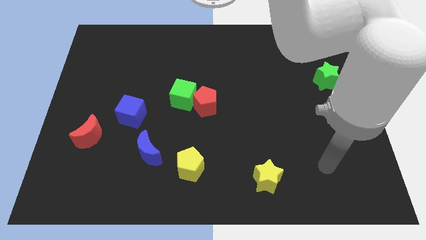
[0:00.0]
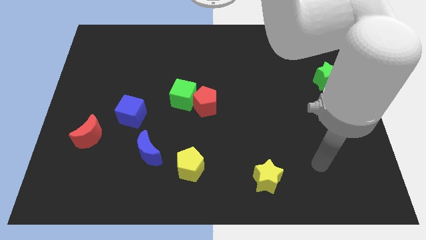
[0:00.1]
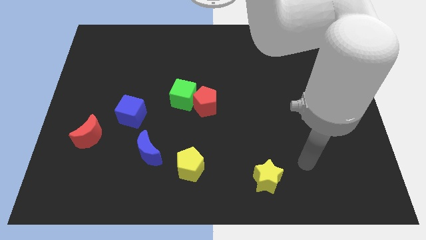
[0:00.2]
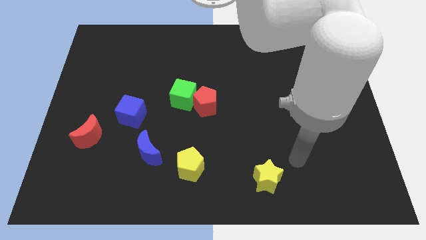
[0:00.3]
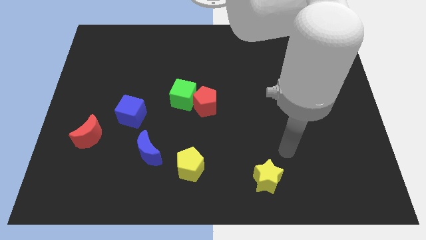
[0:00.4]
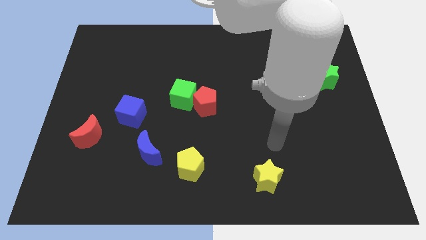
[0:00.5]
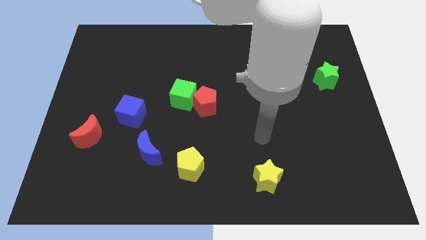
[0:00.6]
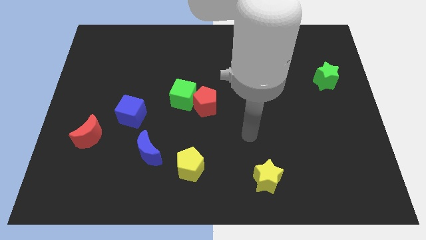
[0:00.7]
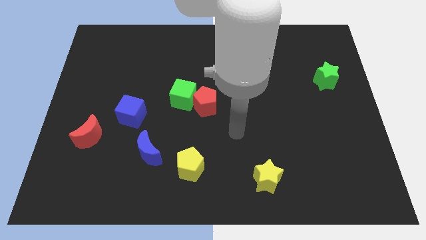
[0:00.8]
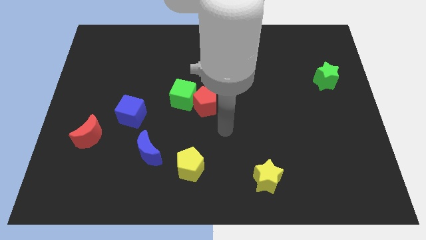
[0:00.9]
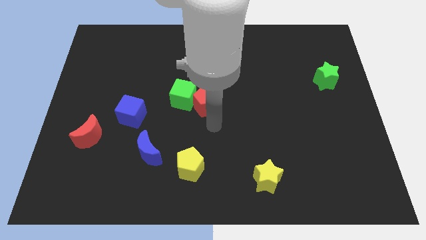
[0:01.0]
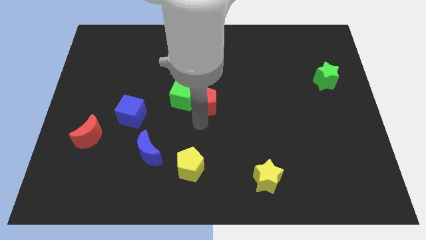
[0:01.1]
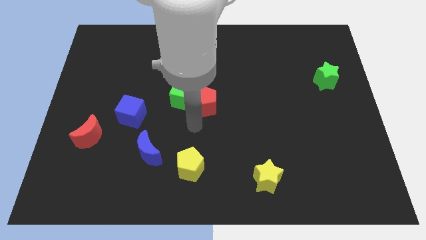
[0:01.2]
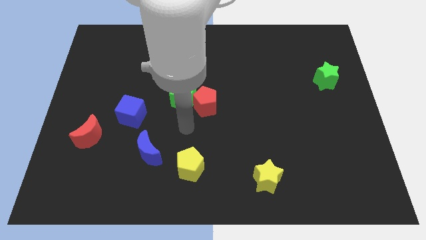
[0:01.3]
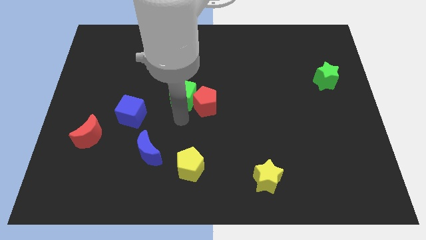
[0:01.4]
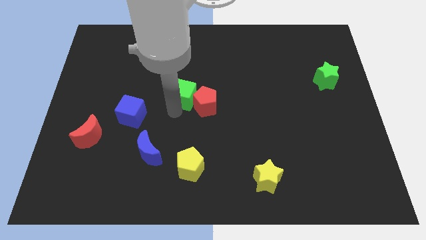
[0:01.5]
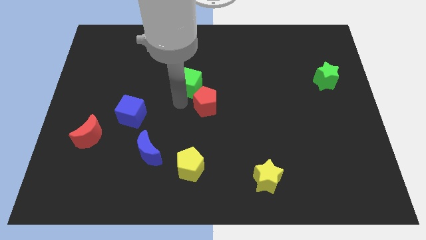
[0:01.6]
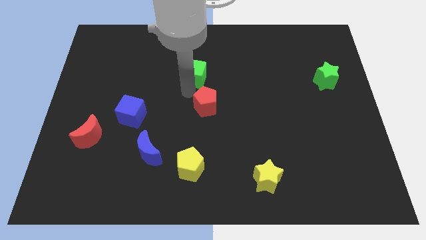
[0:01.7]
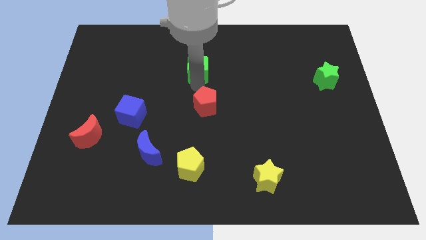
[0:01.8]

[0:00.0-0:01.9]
move the red pentagon away from the green cube

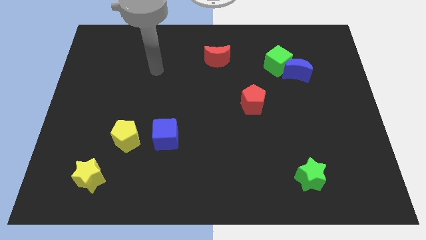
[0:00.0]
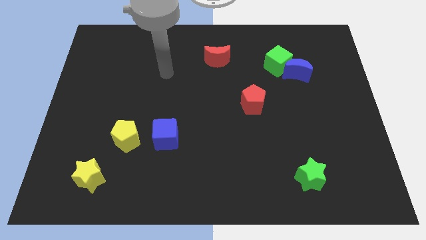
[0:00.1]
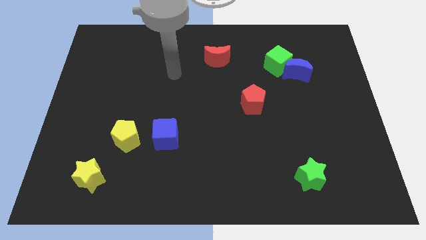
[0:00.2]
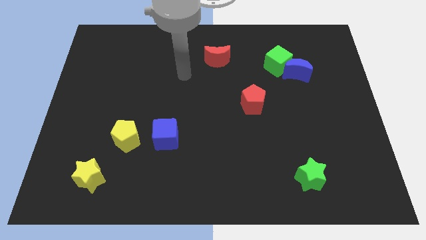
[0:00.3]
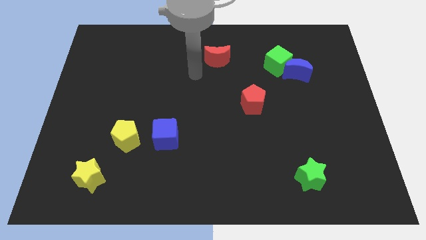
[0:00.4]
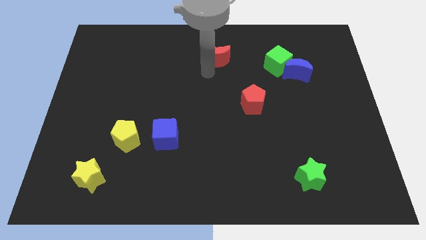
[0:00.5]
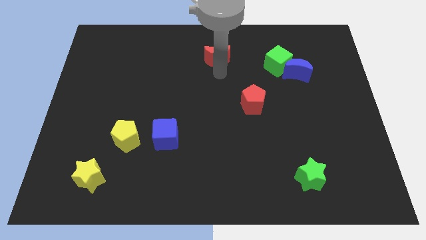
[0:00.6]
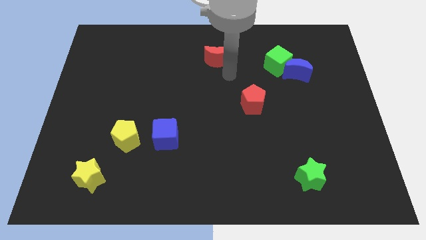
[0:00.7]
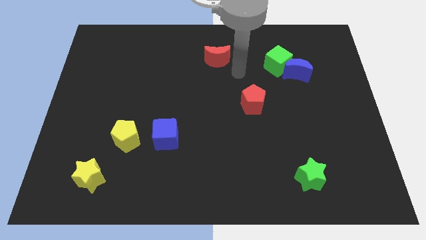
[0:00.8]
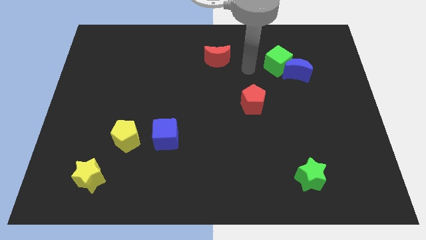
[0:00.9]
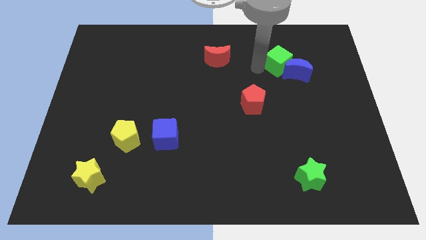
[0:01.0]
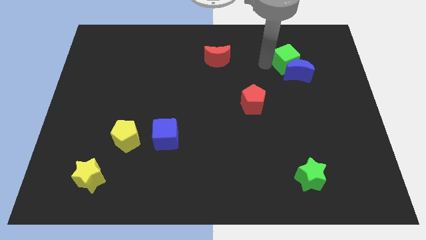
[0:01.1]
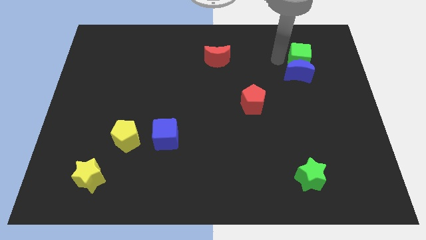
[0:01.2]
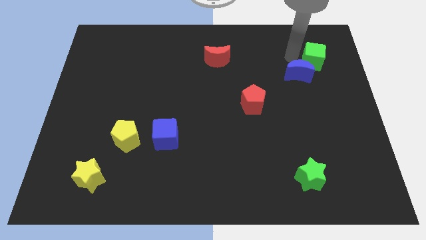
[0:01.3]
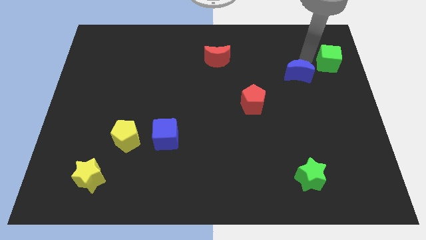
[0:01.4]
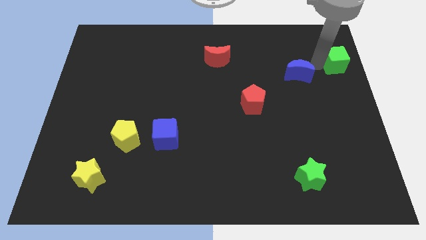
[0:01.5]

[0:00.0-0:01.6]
move the blue moon away from the green cube

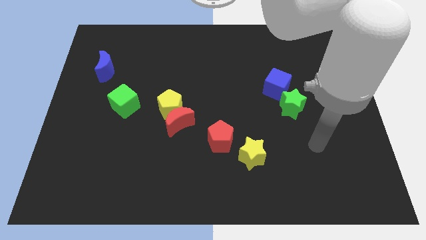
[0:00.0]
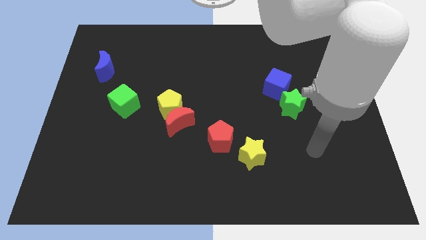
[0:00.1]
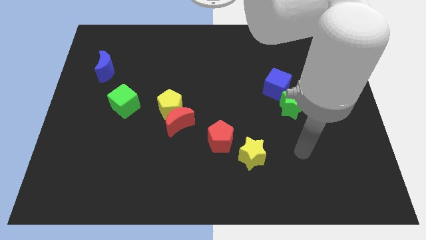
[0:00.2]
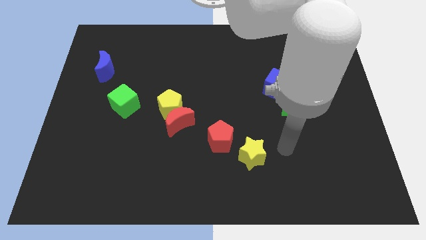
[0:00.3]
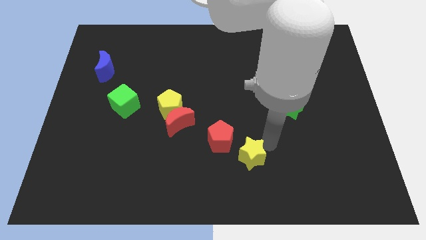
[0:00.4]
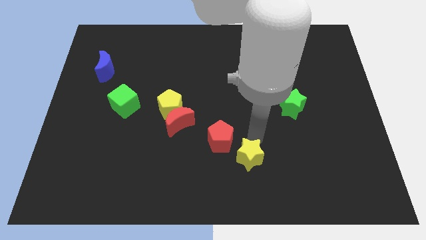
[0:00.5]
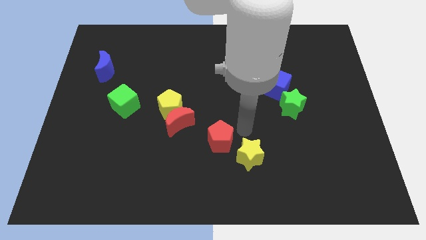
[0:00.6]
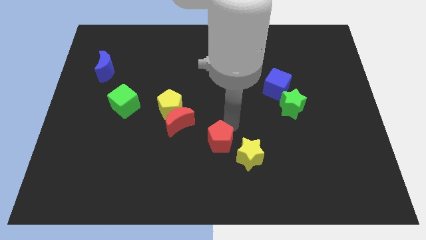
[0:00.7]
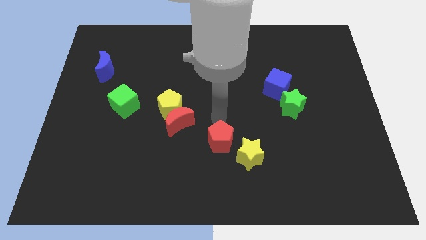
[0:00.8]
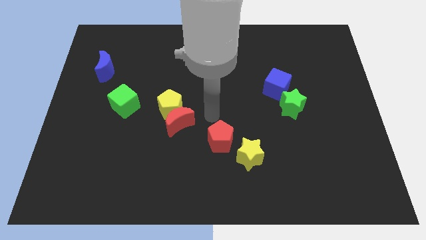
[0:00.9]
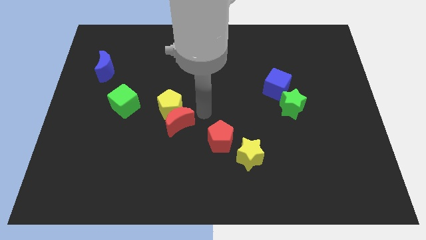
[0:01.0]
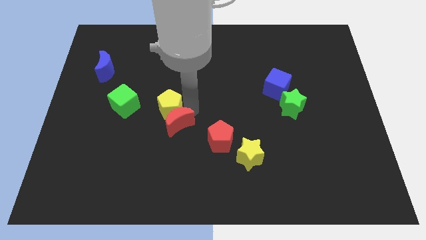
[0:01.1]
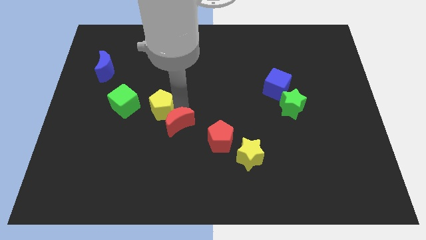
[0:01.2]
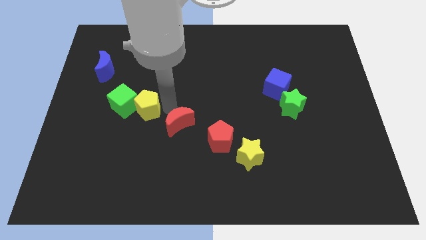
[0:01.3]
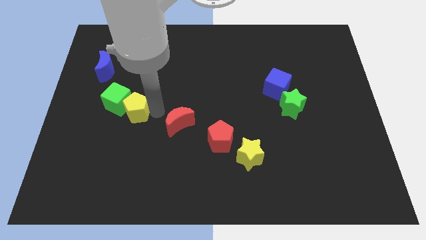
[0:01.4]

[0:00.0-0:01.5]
move the red moon away from the yellow pentagon

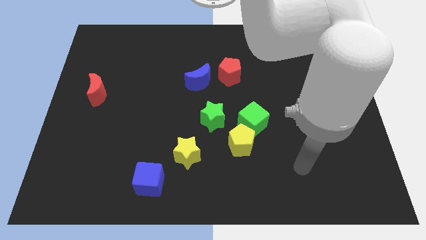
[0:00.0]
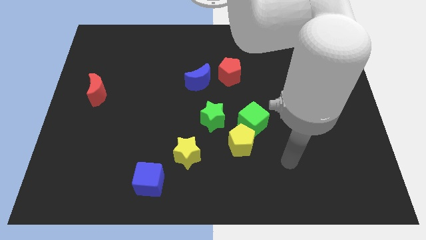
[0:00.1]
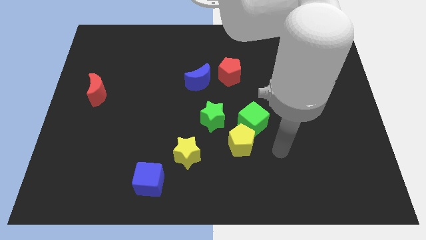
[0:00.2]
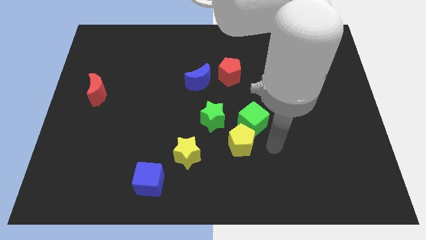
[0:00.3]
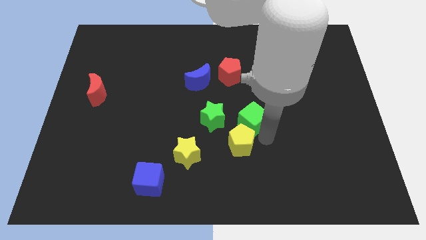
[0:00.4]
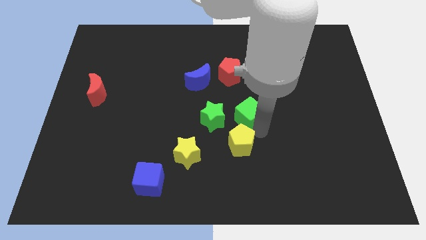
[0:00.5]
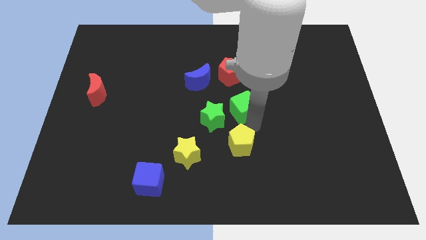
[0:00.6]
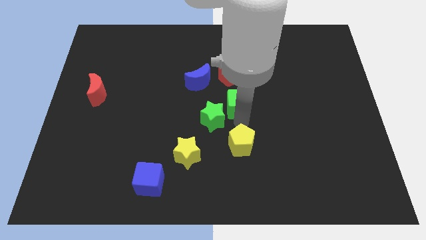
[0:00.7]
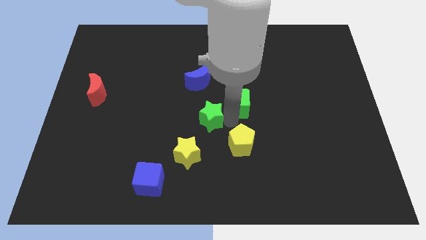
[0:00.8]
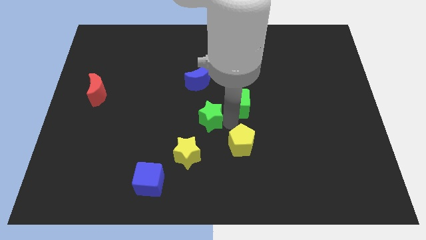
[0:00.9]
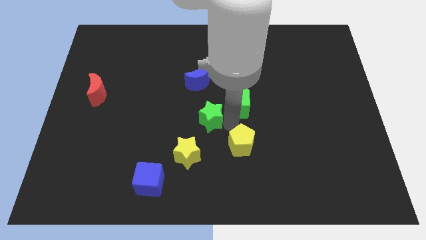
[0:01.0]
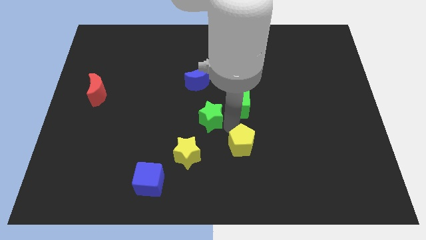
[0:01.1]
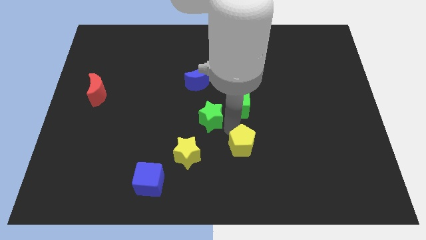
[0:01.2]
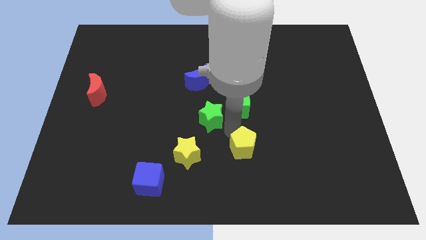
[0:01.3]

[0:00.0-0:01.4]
separate the yellow pentagon from the green cube and green star

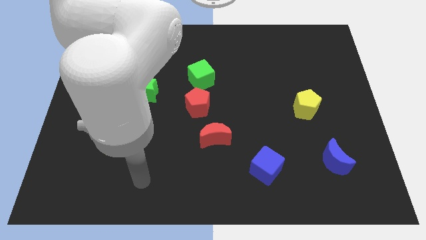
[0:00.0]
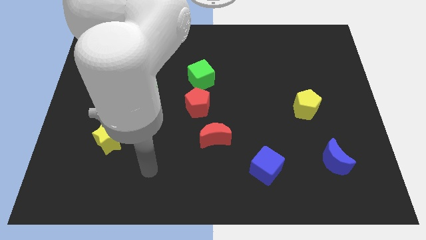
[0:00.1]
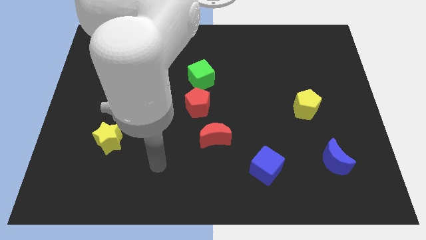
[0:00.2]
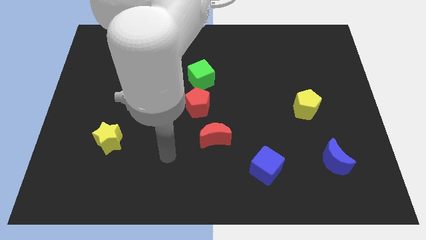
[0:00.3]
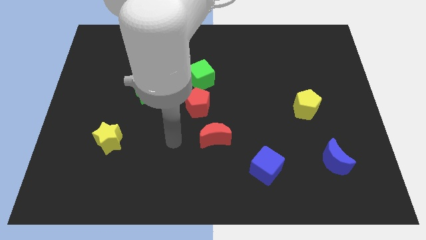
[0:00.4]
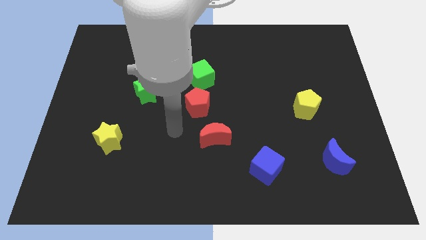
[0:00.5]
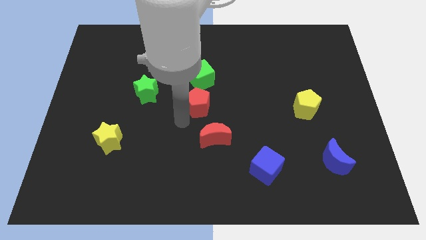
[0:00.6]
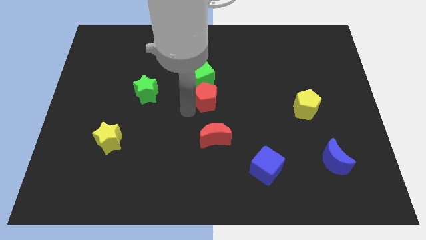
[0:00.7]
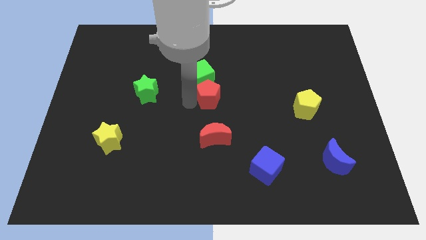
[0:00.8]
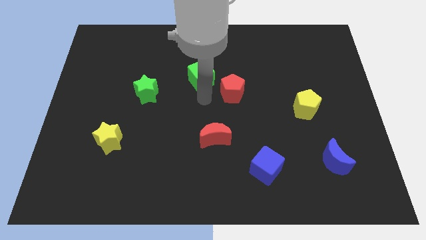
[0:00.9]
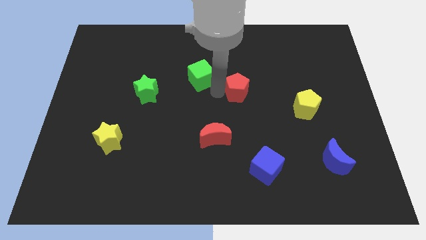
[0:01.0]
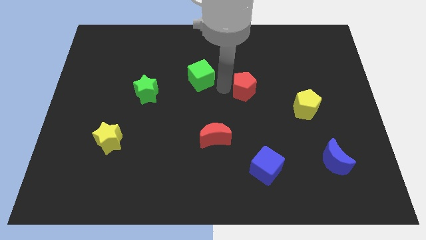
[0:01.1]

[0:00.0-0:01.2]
pull the green cube apart from the red pentagon

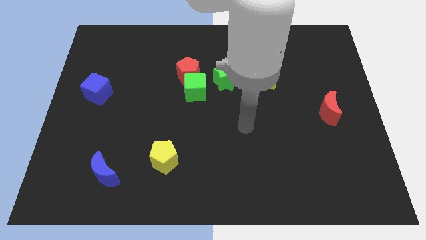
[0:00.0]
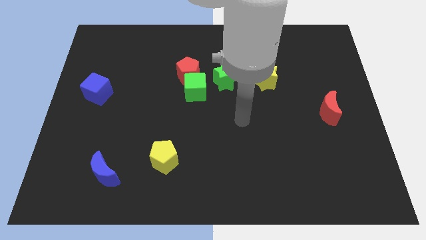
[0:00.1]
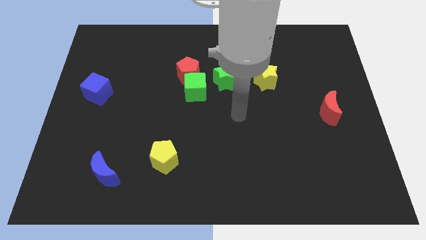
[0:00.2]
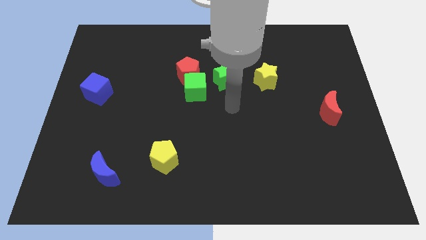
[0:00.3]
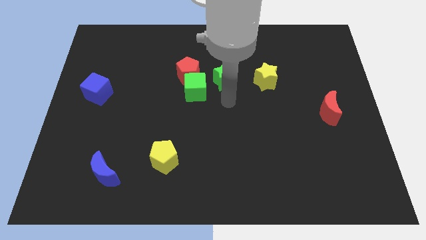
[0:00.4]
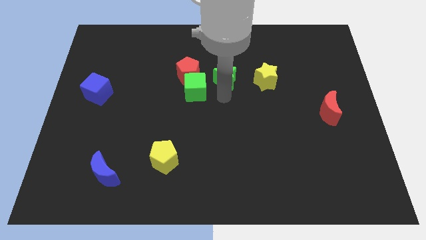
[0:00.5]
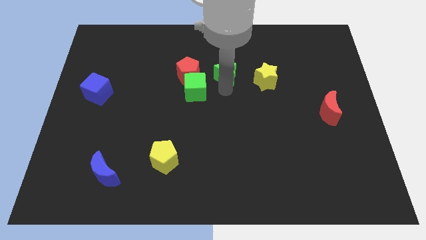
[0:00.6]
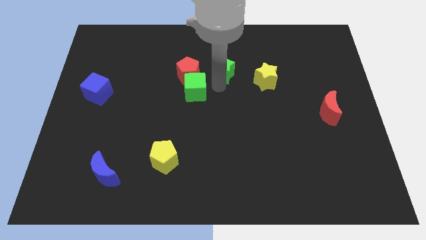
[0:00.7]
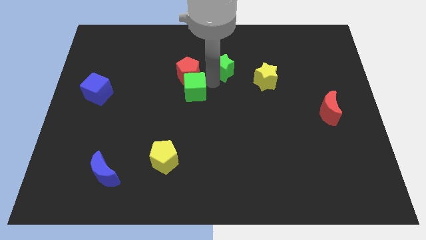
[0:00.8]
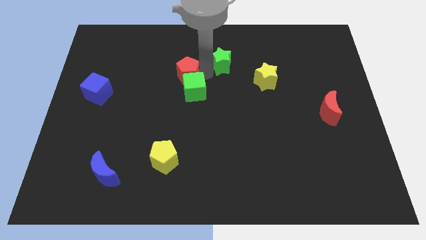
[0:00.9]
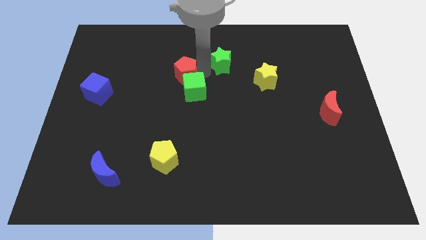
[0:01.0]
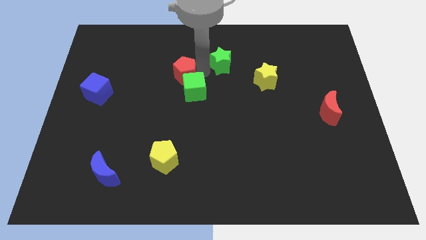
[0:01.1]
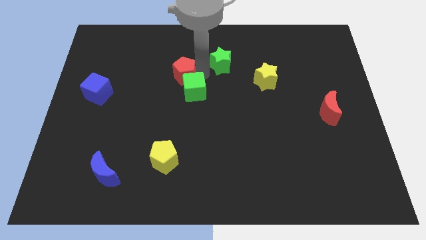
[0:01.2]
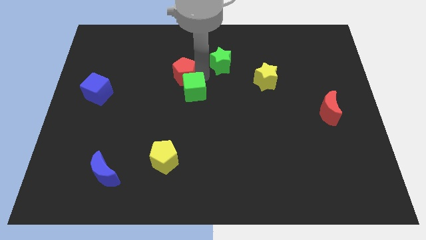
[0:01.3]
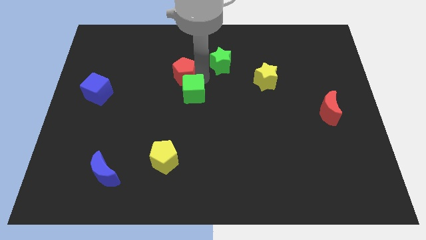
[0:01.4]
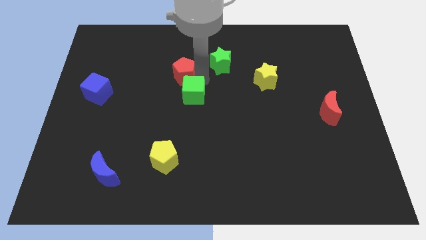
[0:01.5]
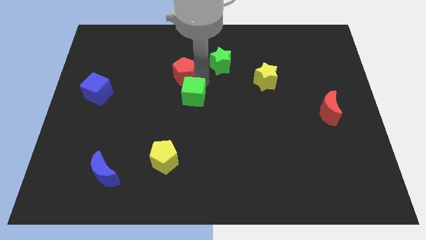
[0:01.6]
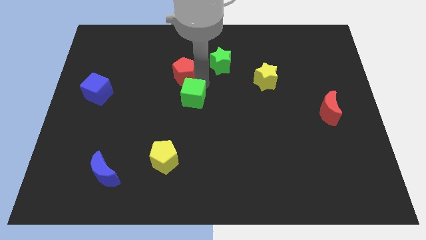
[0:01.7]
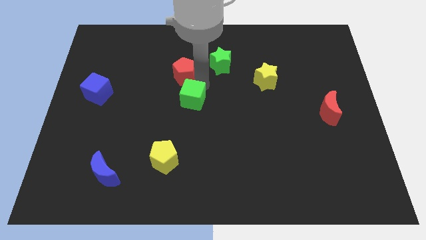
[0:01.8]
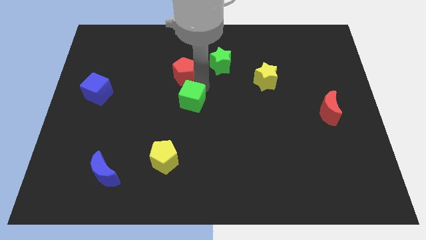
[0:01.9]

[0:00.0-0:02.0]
pull the green cube apart from the red pentagon and green star
